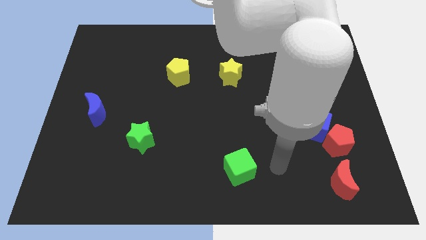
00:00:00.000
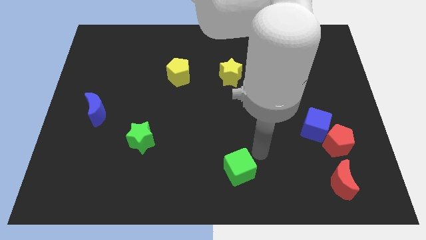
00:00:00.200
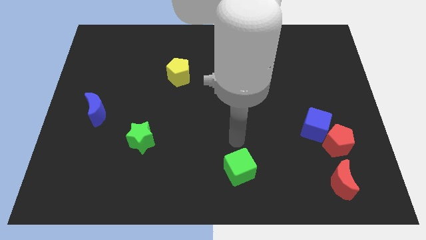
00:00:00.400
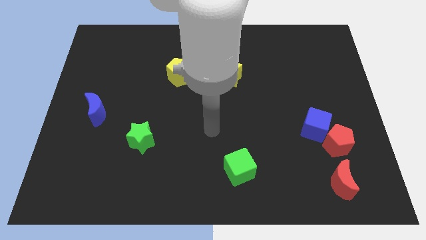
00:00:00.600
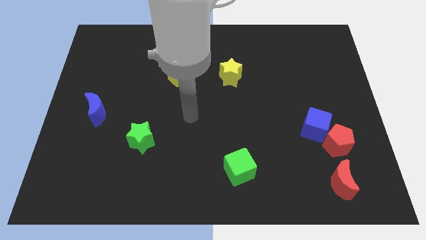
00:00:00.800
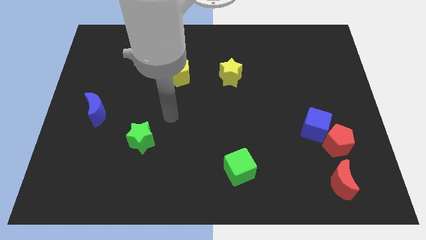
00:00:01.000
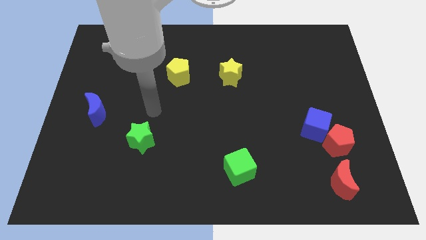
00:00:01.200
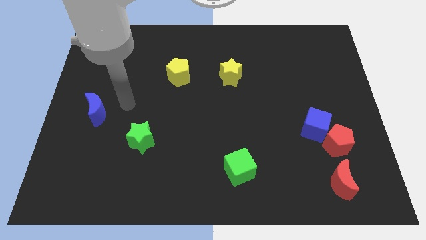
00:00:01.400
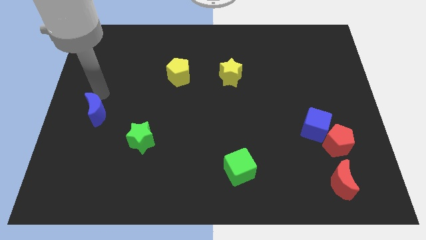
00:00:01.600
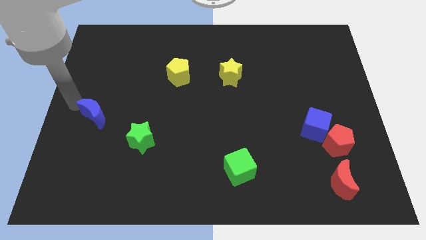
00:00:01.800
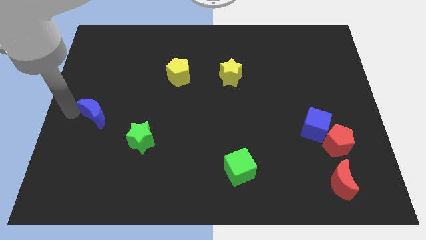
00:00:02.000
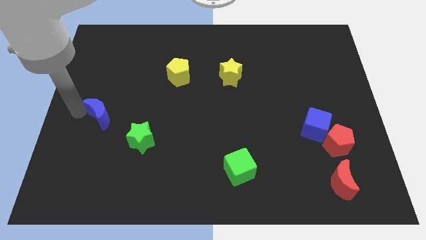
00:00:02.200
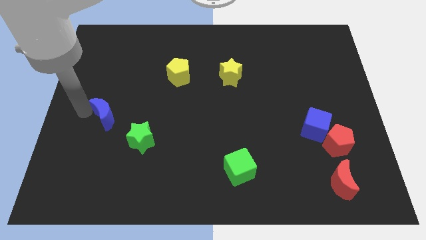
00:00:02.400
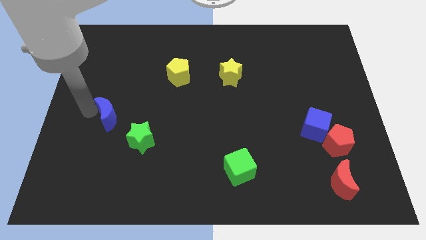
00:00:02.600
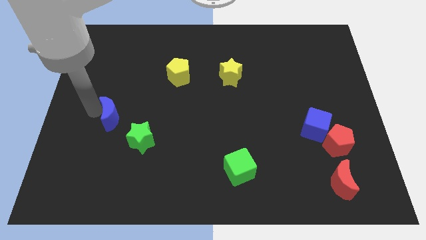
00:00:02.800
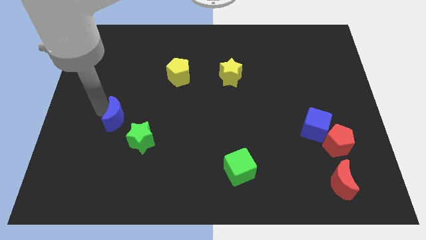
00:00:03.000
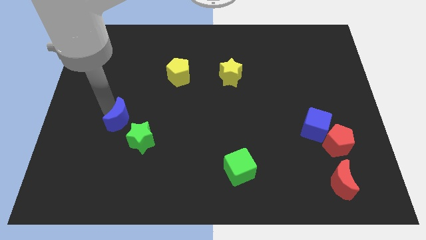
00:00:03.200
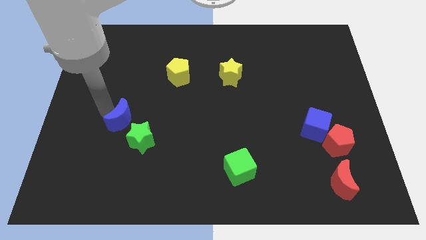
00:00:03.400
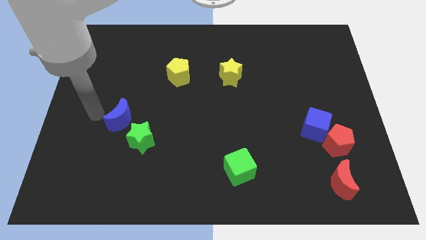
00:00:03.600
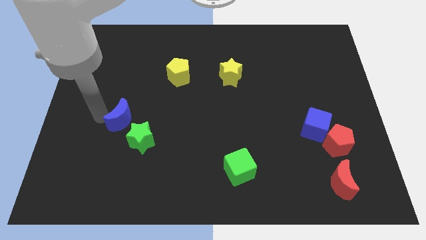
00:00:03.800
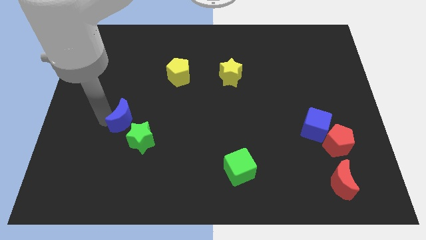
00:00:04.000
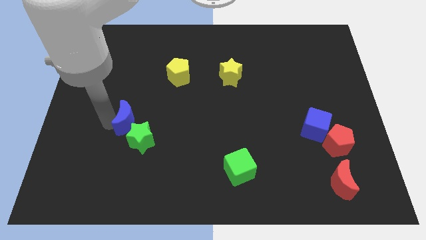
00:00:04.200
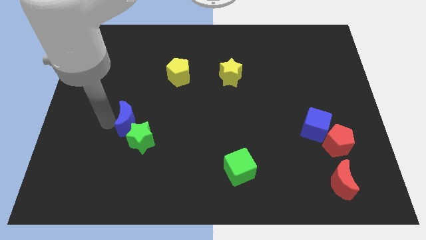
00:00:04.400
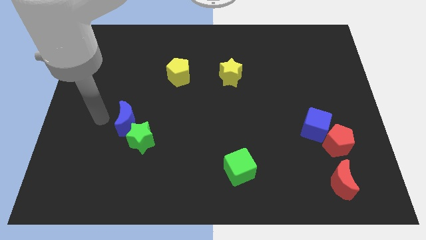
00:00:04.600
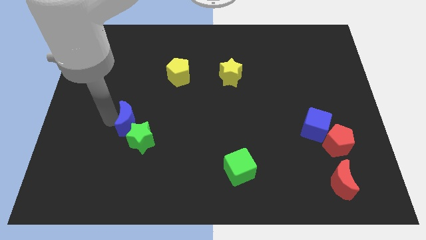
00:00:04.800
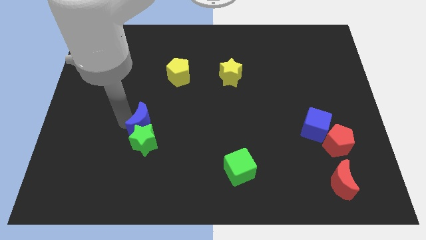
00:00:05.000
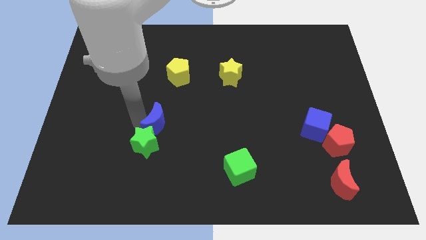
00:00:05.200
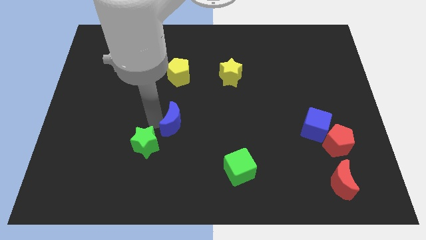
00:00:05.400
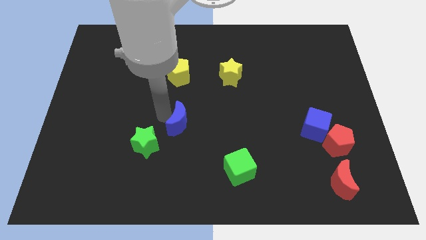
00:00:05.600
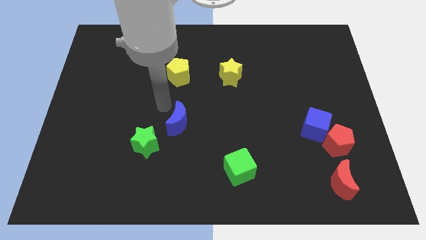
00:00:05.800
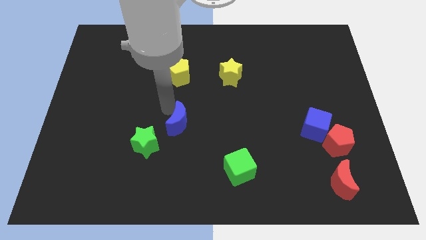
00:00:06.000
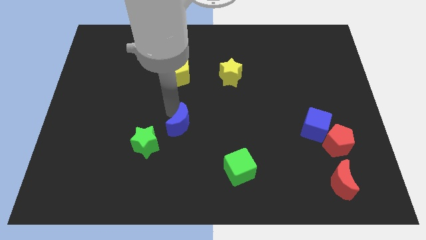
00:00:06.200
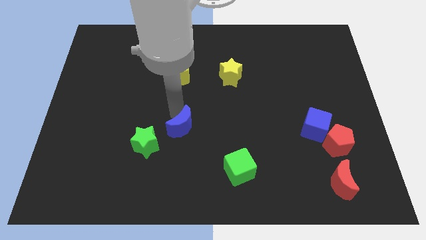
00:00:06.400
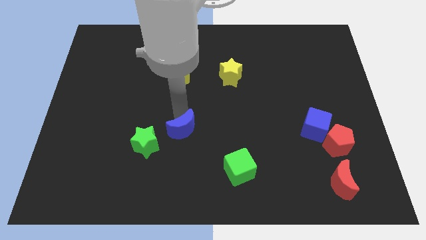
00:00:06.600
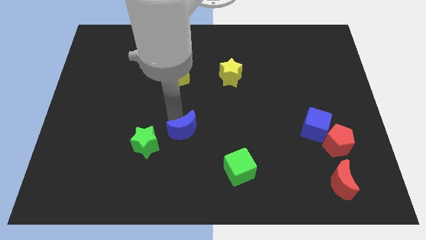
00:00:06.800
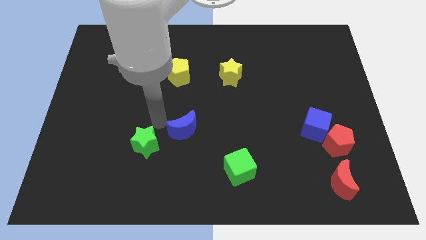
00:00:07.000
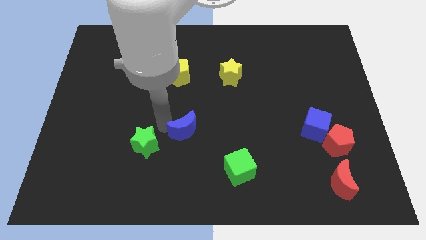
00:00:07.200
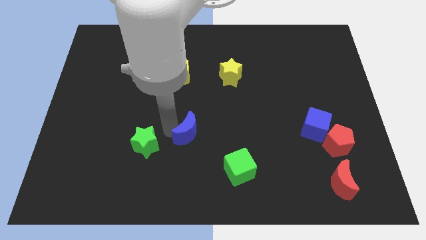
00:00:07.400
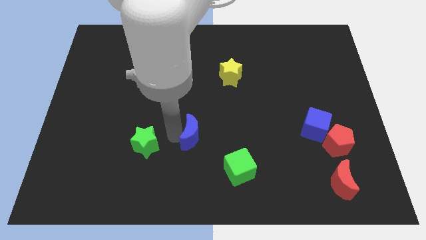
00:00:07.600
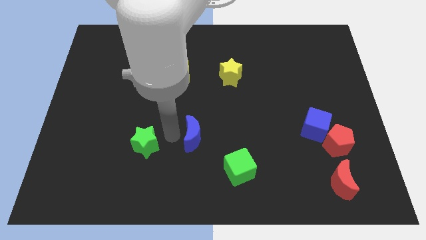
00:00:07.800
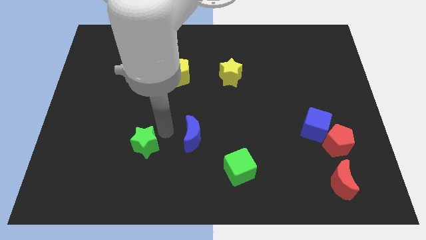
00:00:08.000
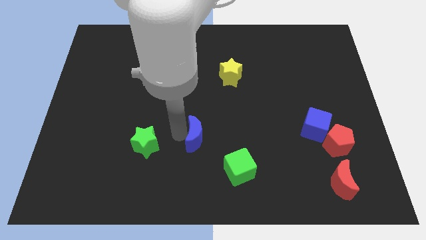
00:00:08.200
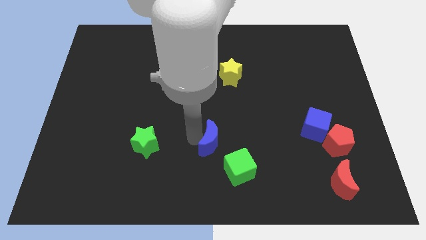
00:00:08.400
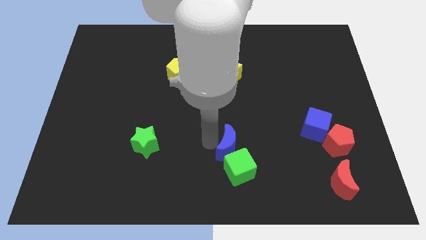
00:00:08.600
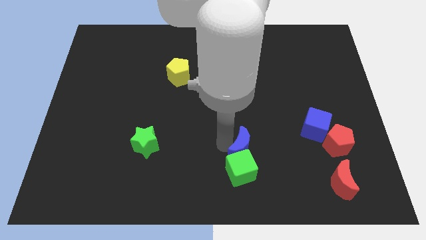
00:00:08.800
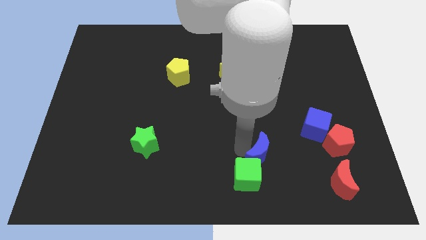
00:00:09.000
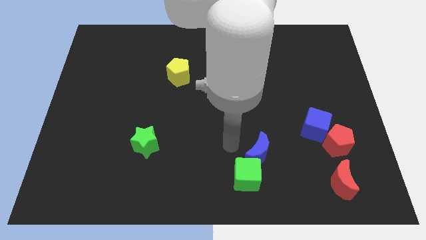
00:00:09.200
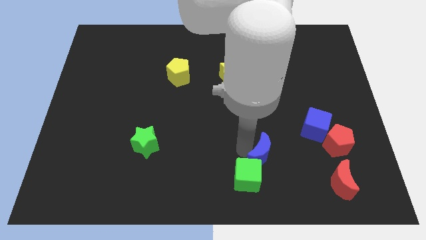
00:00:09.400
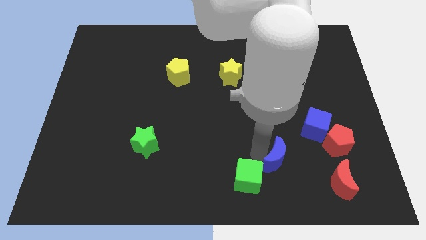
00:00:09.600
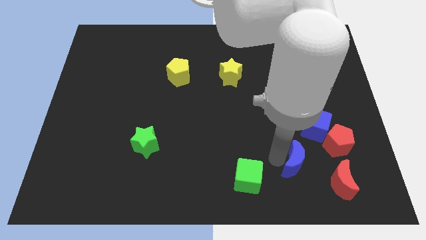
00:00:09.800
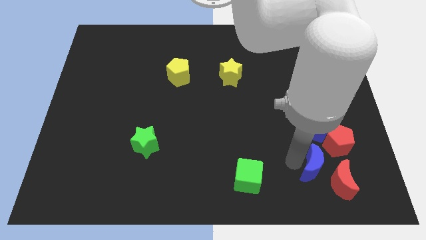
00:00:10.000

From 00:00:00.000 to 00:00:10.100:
move the blue moon next to the red moon

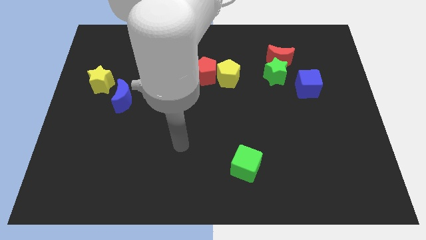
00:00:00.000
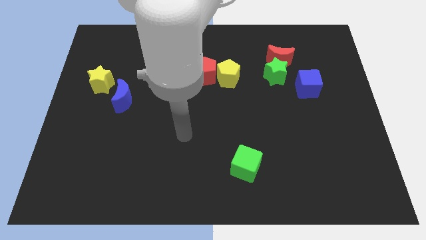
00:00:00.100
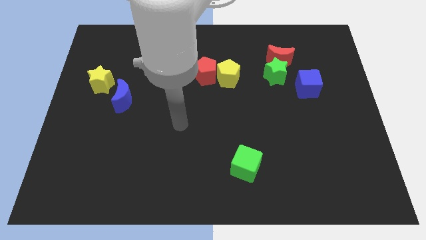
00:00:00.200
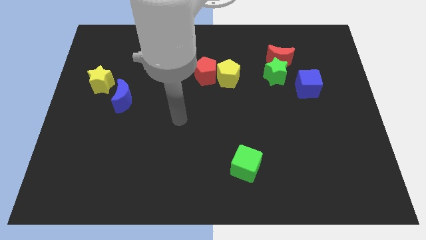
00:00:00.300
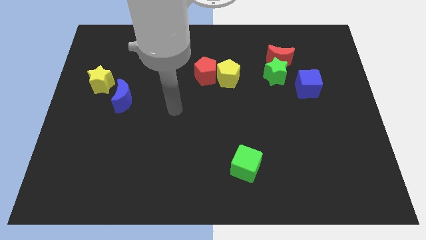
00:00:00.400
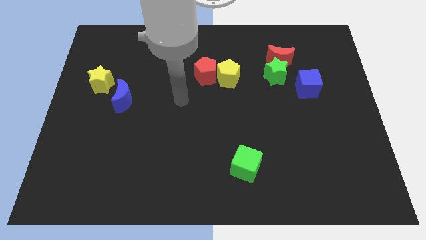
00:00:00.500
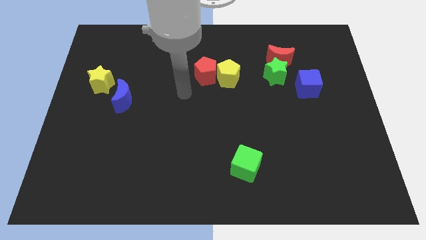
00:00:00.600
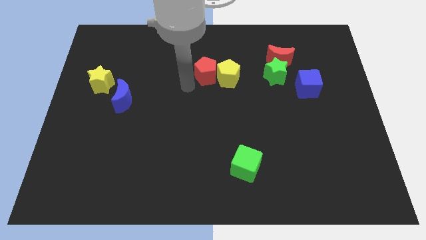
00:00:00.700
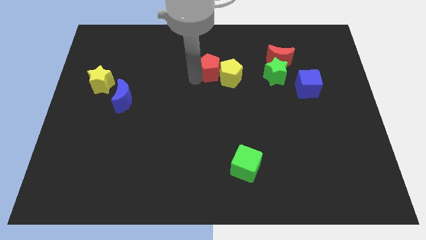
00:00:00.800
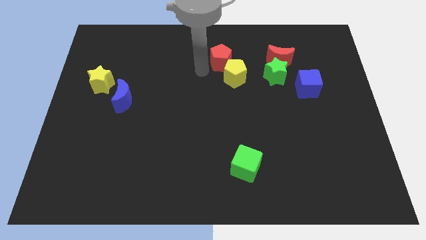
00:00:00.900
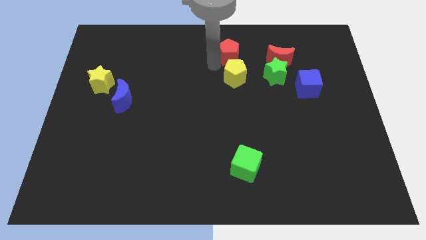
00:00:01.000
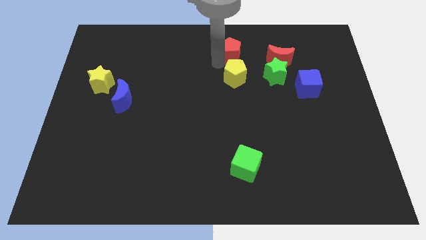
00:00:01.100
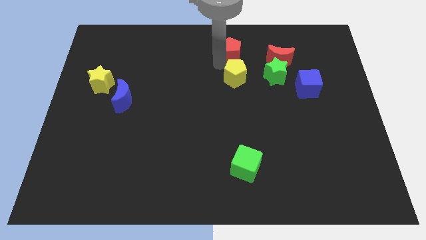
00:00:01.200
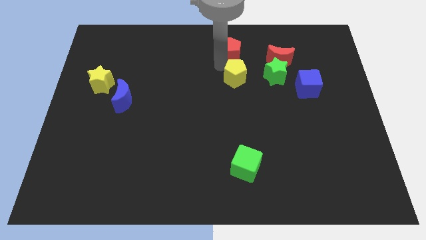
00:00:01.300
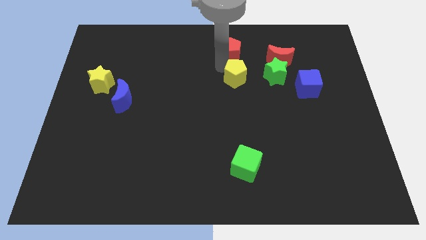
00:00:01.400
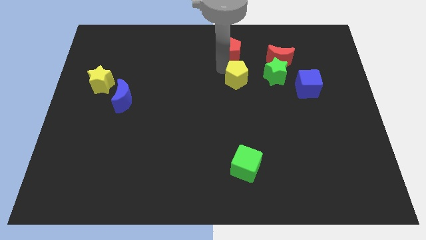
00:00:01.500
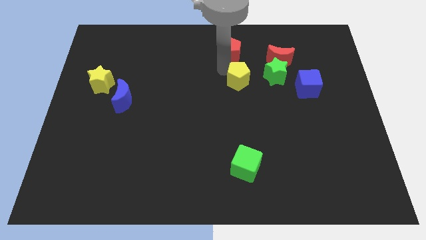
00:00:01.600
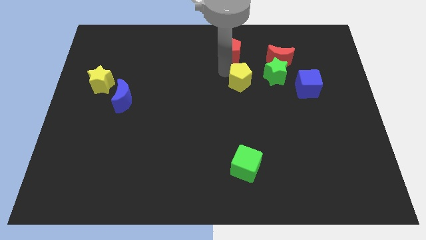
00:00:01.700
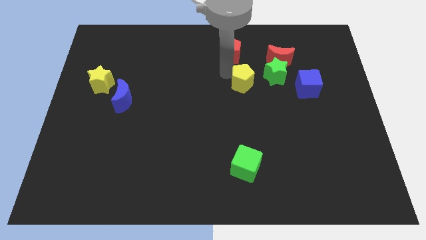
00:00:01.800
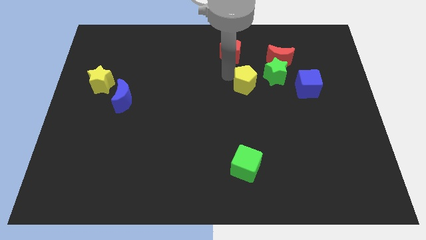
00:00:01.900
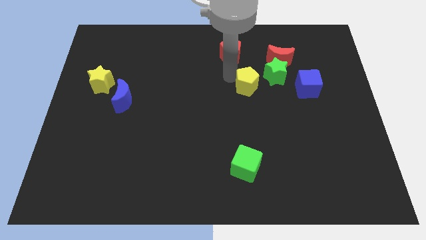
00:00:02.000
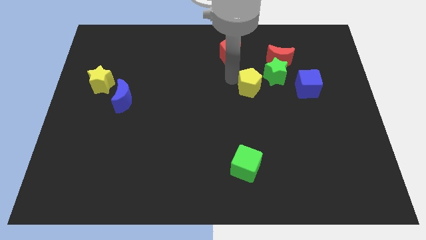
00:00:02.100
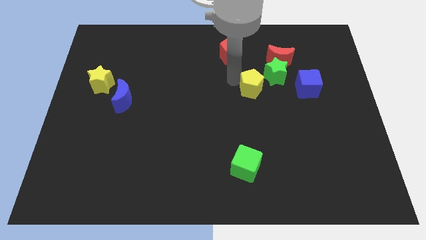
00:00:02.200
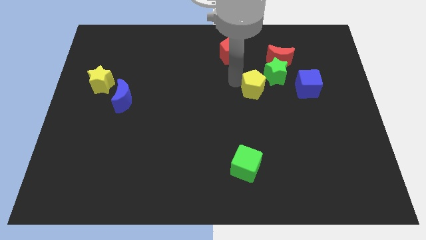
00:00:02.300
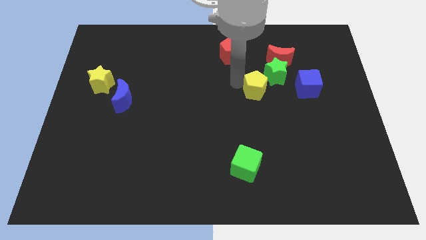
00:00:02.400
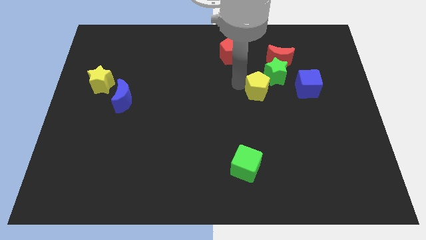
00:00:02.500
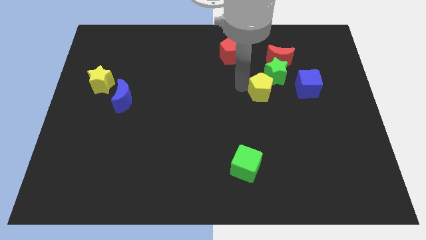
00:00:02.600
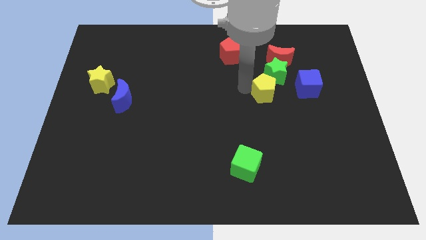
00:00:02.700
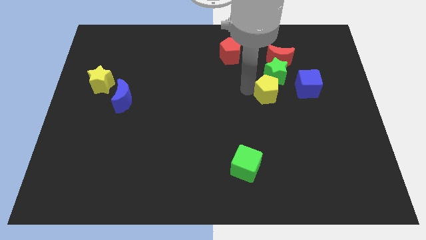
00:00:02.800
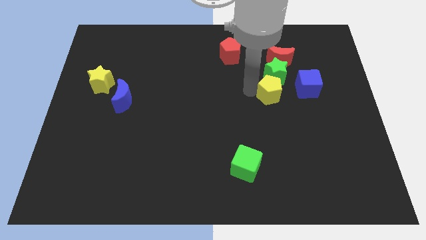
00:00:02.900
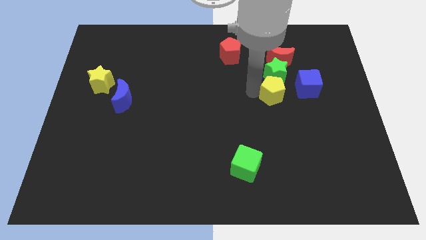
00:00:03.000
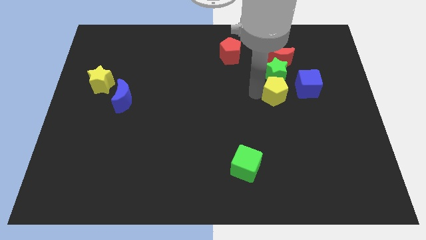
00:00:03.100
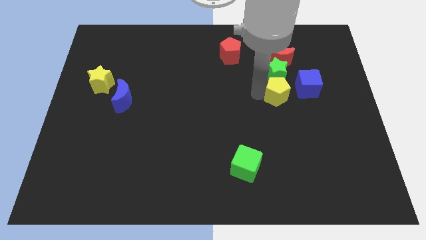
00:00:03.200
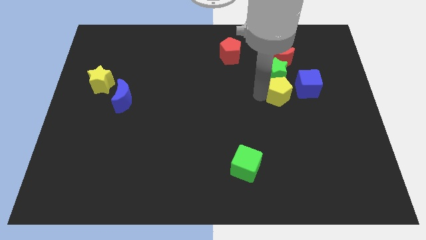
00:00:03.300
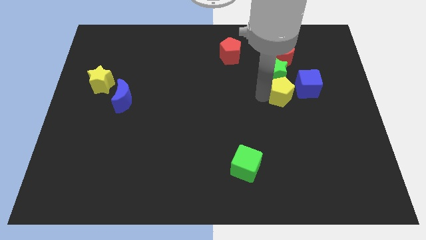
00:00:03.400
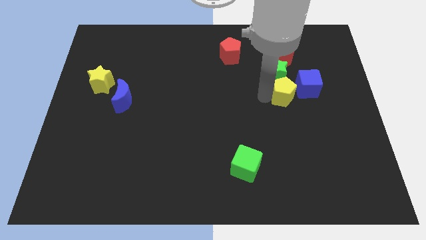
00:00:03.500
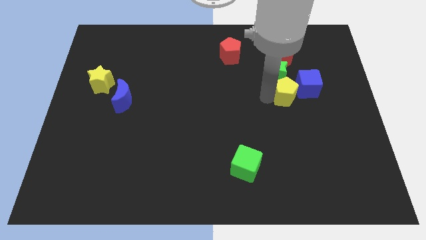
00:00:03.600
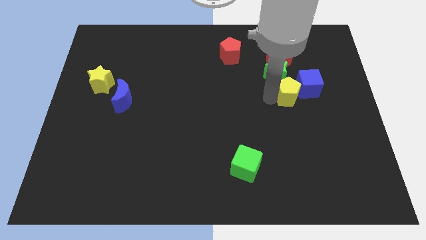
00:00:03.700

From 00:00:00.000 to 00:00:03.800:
slide the yellow pentagon next to the blue cube
